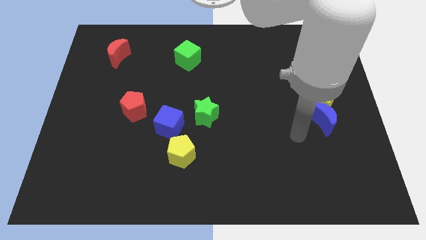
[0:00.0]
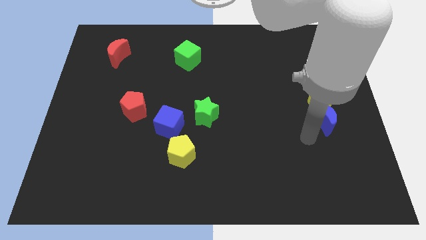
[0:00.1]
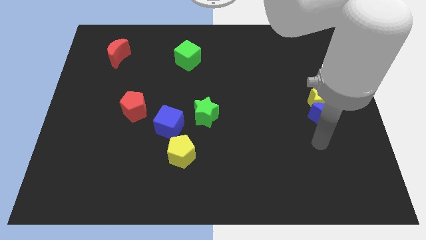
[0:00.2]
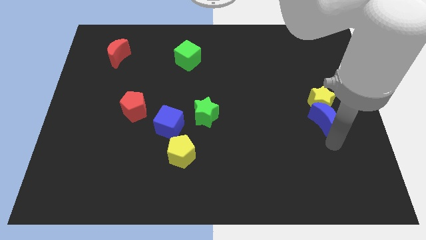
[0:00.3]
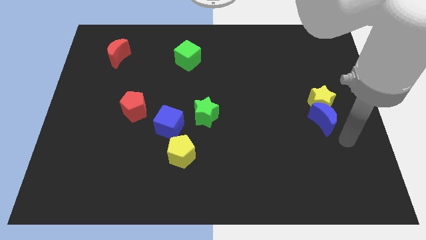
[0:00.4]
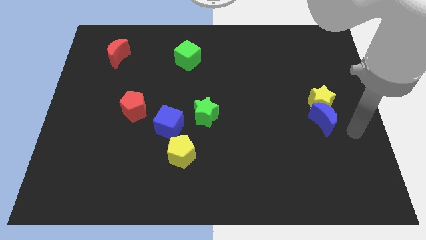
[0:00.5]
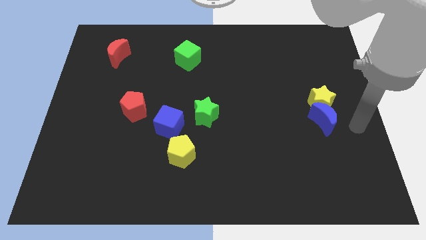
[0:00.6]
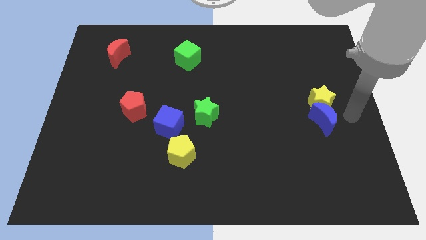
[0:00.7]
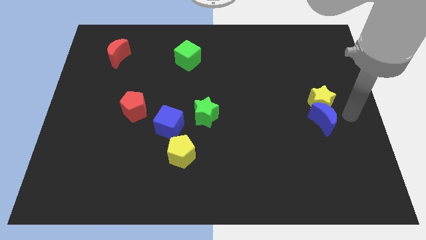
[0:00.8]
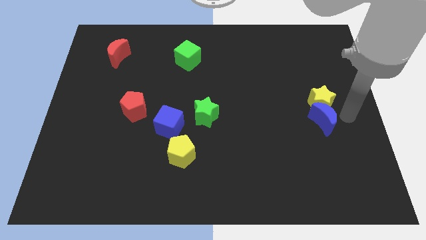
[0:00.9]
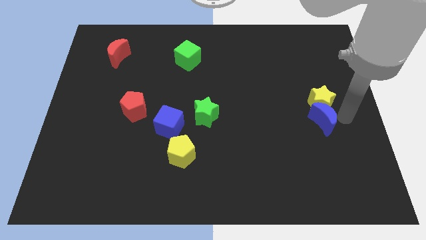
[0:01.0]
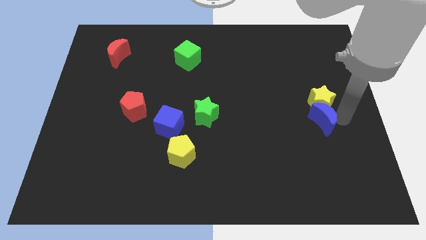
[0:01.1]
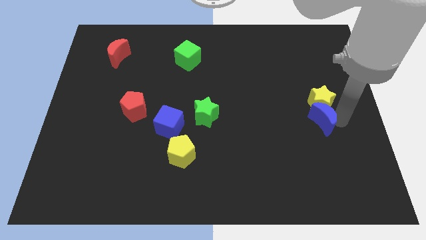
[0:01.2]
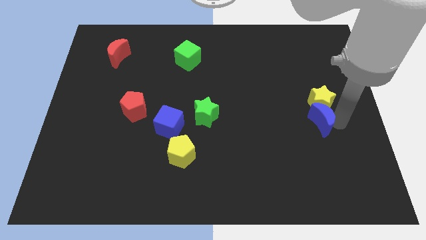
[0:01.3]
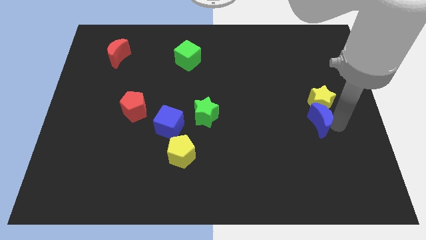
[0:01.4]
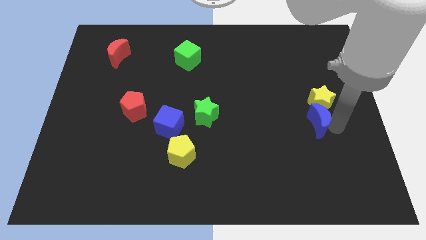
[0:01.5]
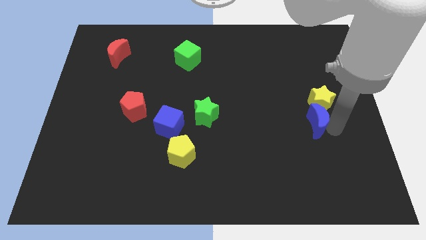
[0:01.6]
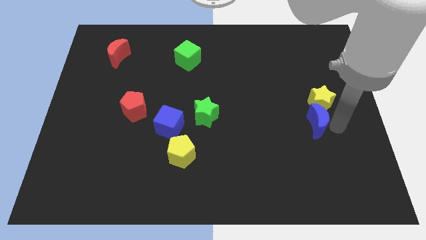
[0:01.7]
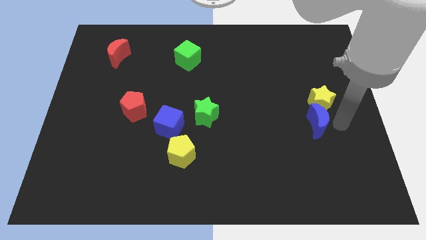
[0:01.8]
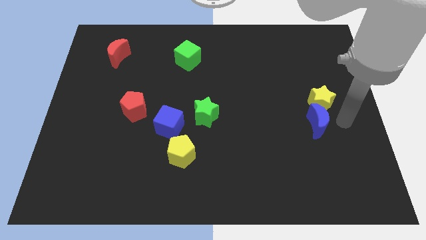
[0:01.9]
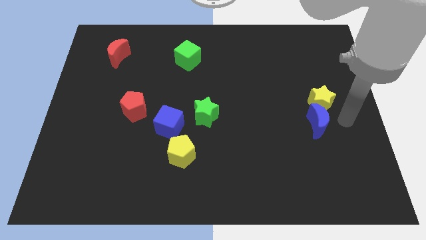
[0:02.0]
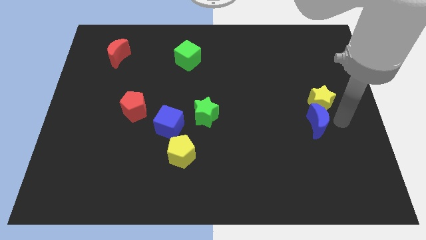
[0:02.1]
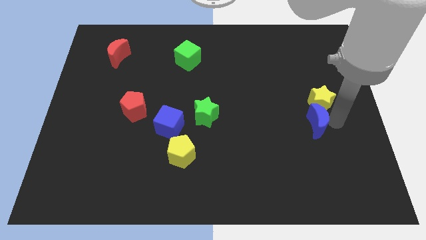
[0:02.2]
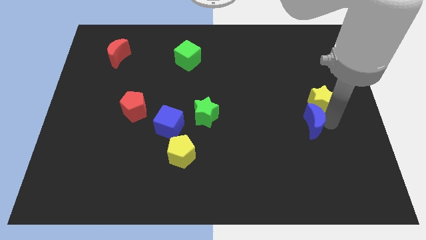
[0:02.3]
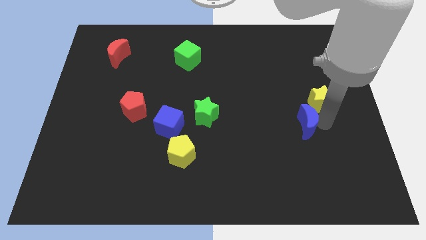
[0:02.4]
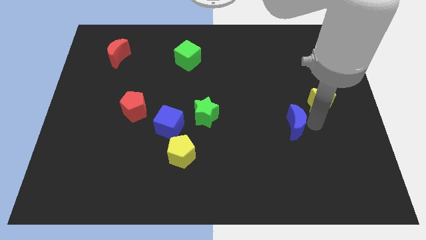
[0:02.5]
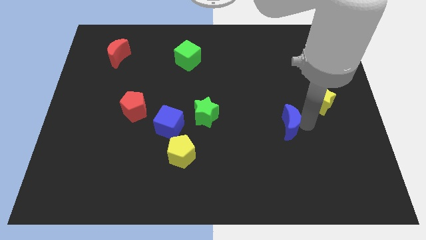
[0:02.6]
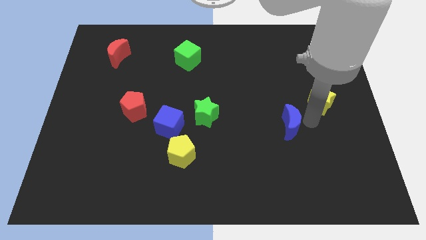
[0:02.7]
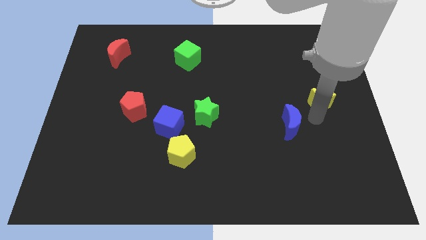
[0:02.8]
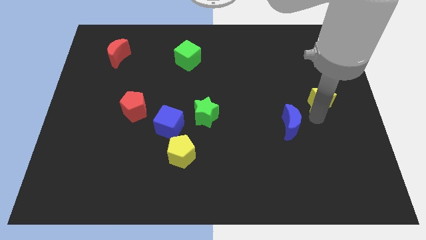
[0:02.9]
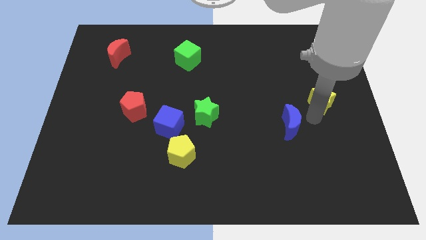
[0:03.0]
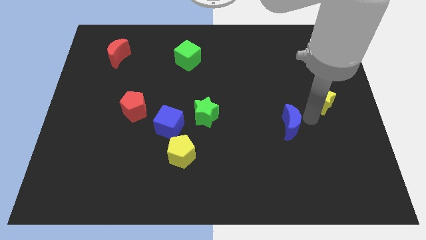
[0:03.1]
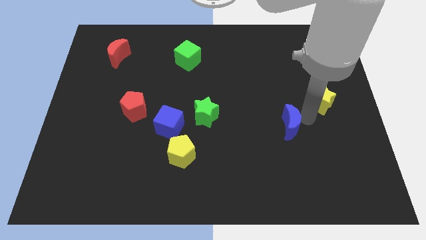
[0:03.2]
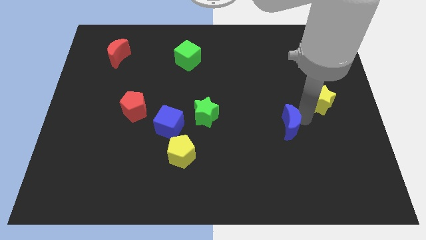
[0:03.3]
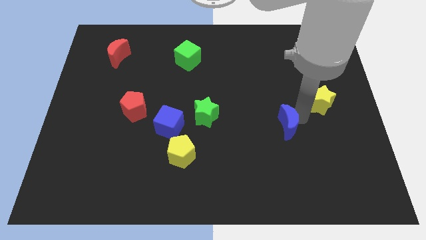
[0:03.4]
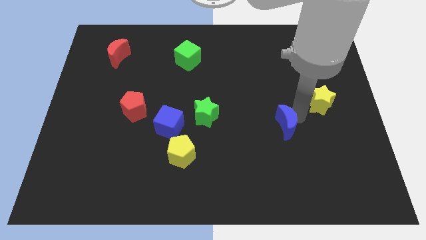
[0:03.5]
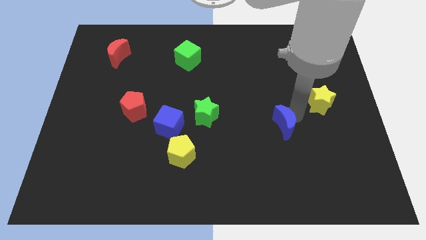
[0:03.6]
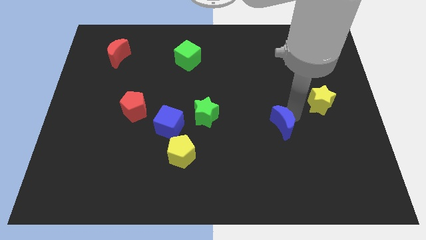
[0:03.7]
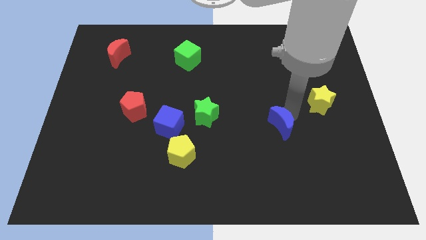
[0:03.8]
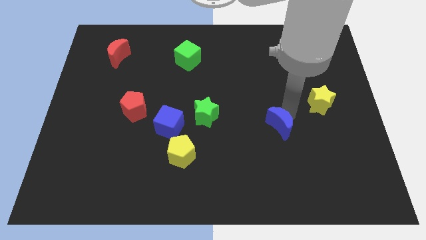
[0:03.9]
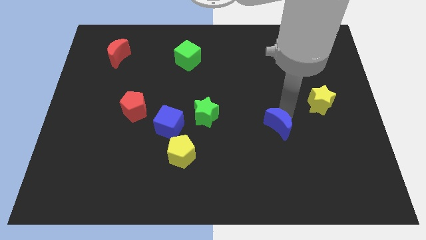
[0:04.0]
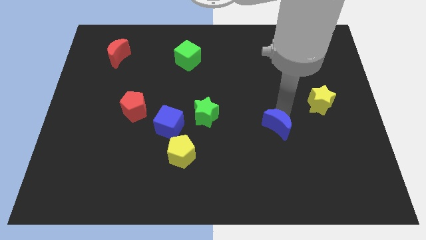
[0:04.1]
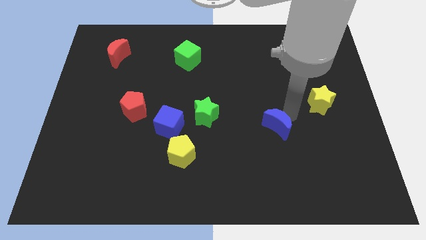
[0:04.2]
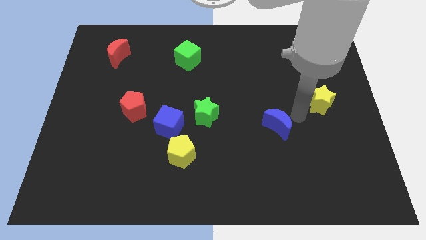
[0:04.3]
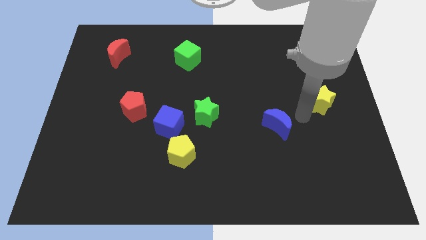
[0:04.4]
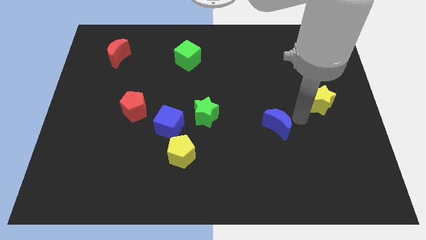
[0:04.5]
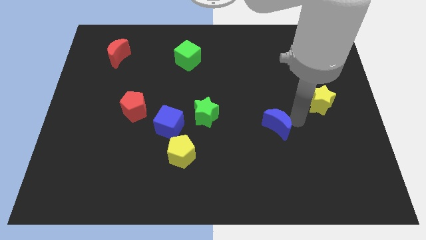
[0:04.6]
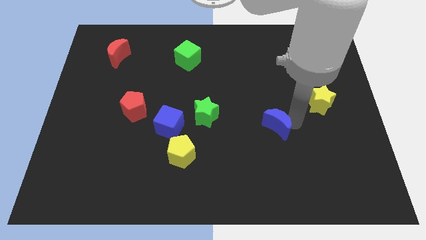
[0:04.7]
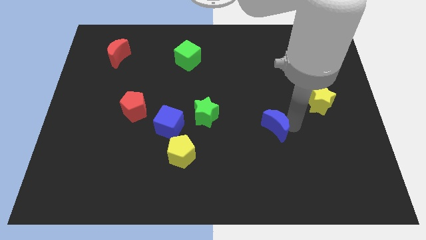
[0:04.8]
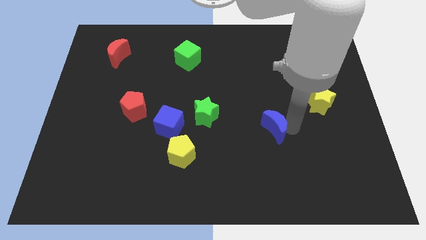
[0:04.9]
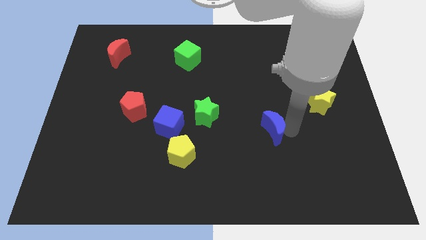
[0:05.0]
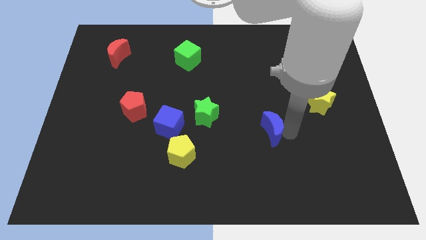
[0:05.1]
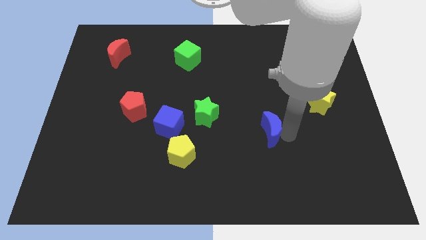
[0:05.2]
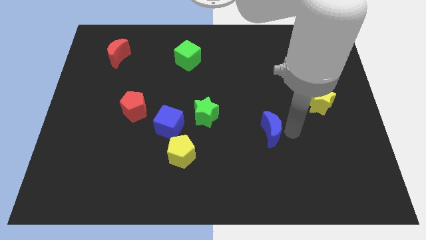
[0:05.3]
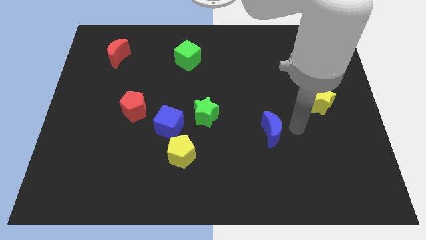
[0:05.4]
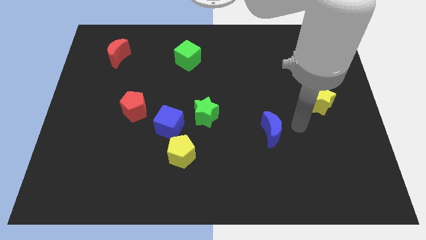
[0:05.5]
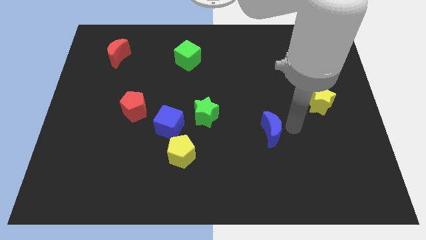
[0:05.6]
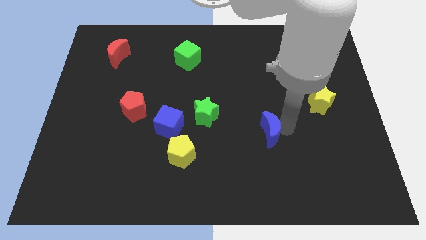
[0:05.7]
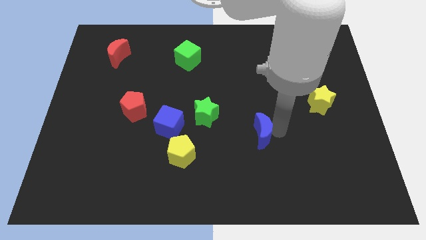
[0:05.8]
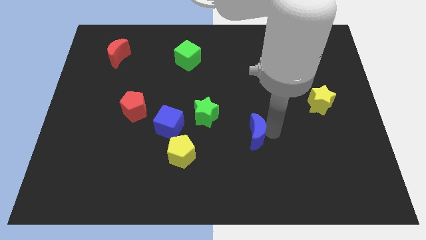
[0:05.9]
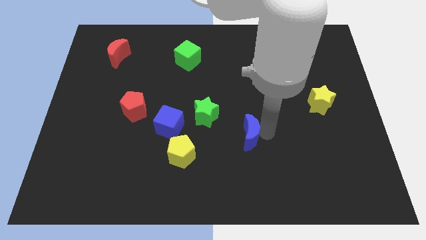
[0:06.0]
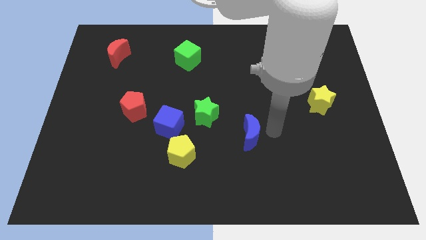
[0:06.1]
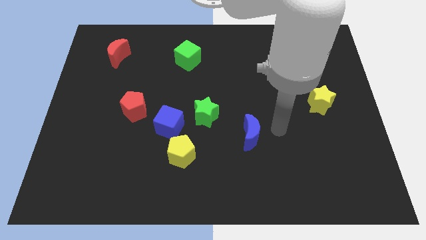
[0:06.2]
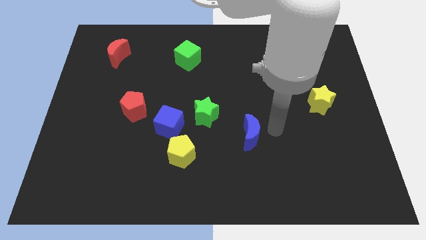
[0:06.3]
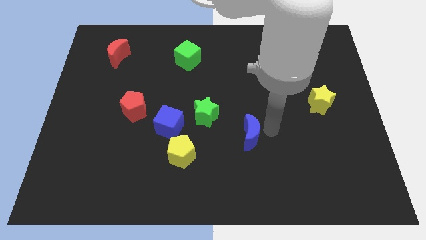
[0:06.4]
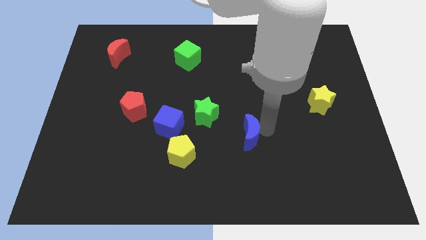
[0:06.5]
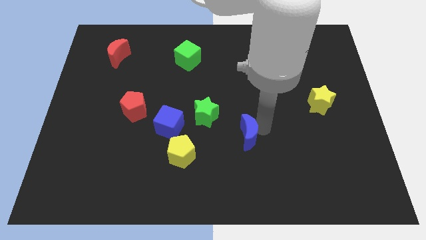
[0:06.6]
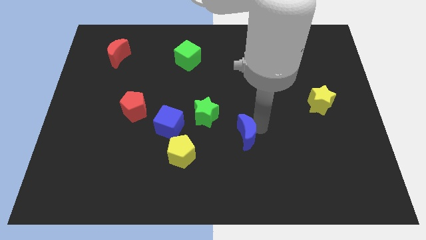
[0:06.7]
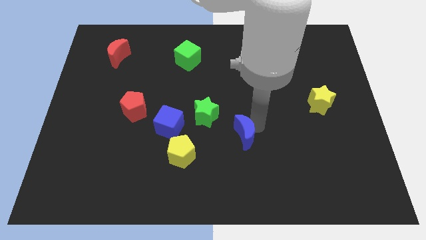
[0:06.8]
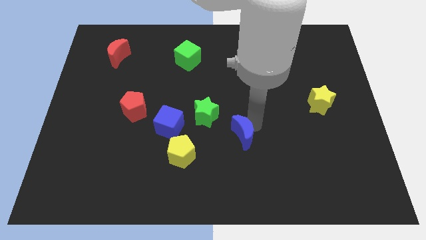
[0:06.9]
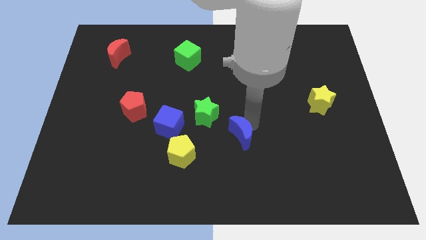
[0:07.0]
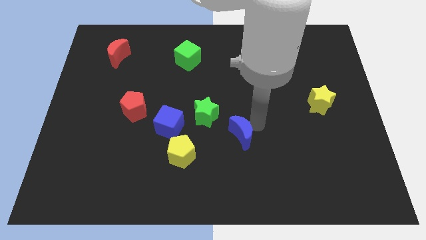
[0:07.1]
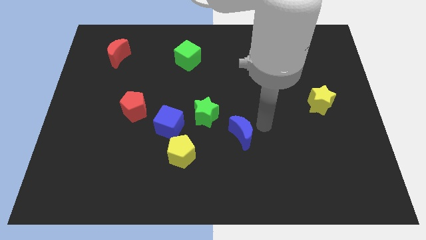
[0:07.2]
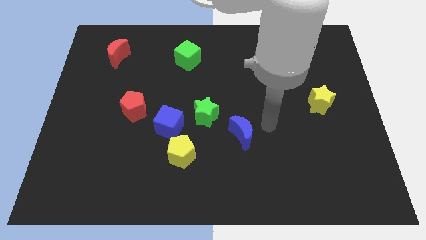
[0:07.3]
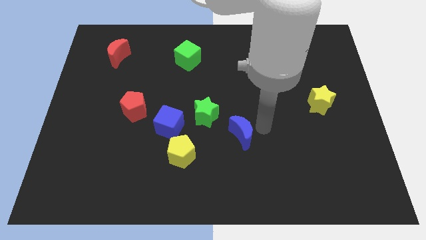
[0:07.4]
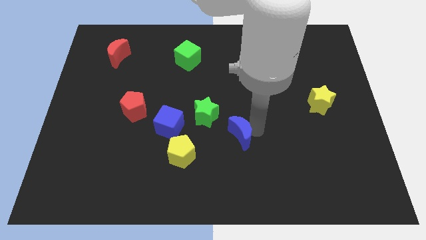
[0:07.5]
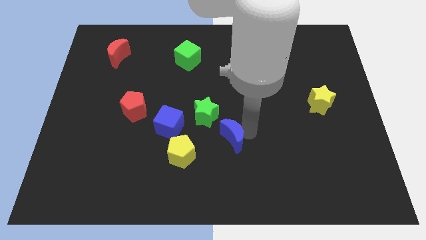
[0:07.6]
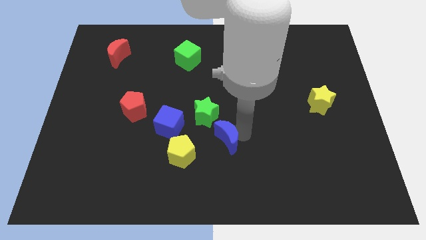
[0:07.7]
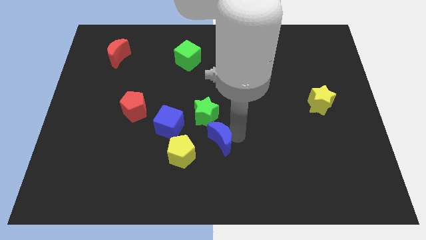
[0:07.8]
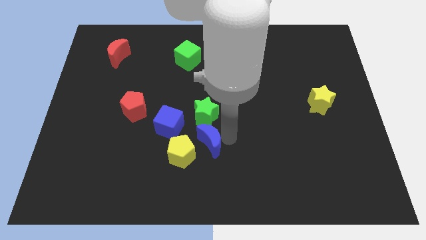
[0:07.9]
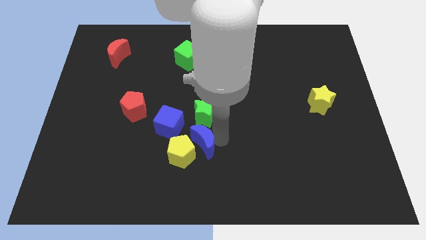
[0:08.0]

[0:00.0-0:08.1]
move the blue moon next to the yellow pentagon
